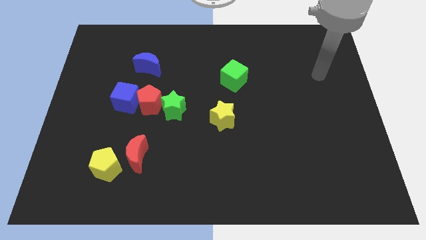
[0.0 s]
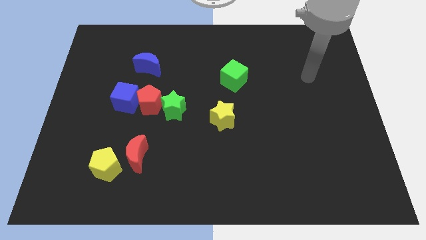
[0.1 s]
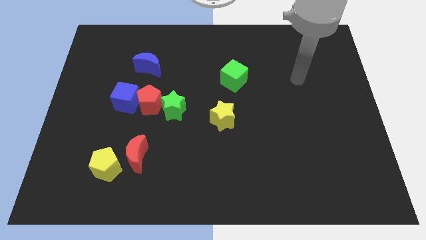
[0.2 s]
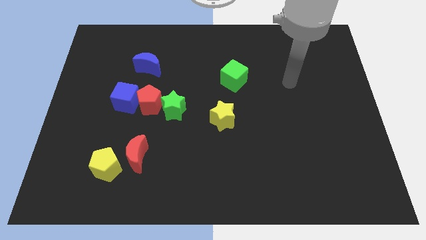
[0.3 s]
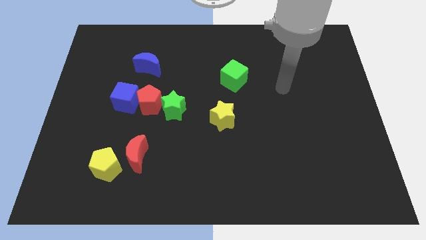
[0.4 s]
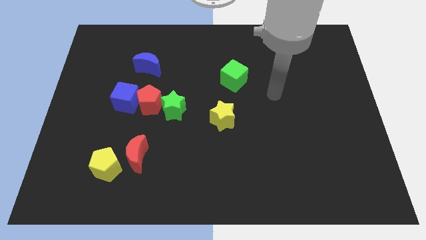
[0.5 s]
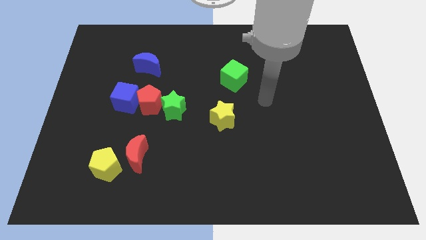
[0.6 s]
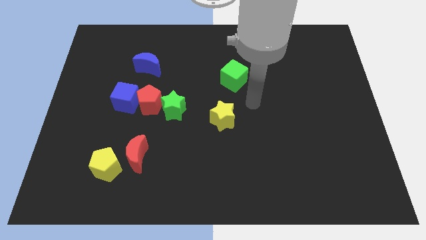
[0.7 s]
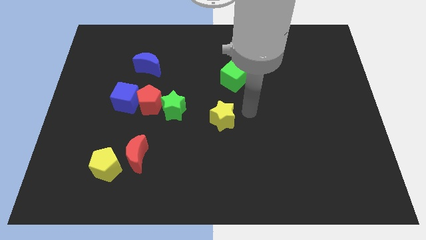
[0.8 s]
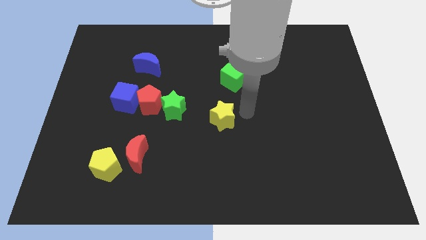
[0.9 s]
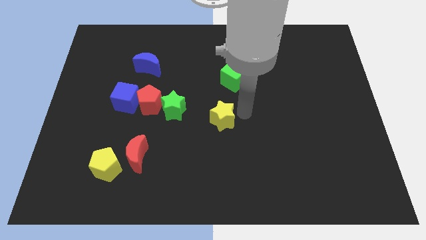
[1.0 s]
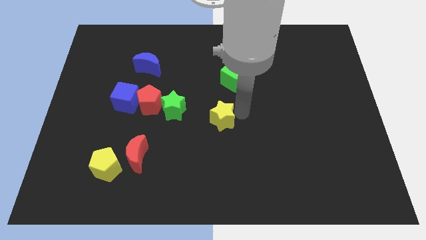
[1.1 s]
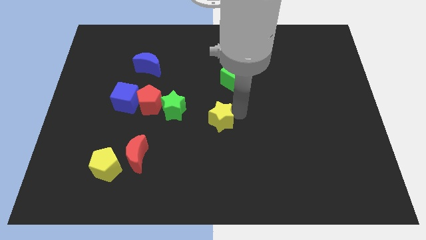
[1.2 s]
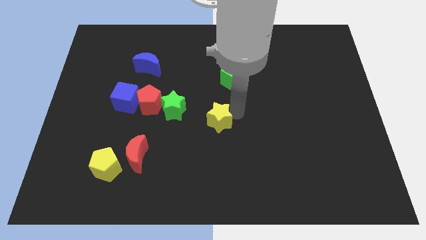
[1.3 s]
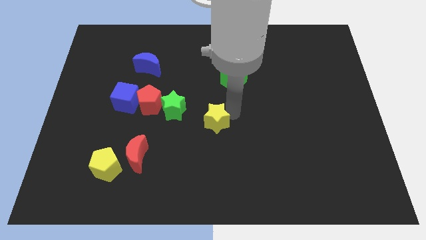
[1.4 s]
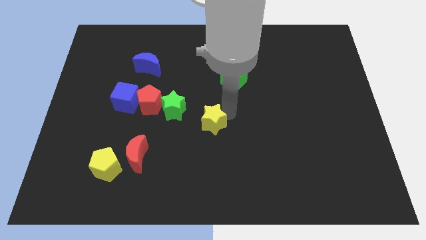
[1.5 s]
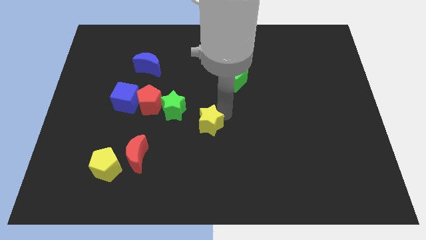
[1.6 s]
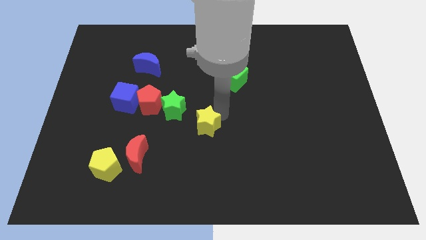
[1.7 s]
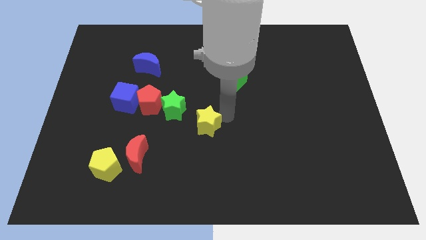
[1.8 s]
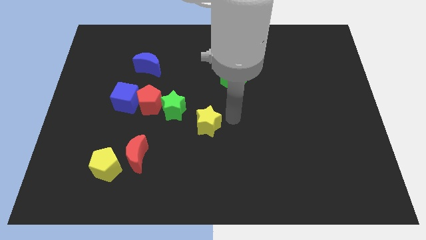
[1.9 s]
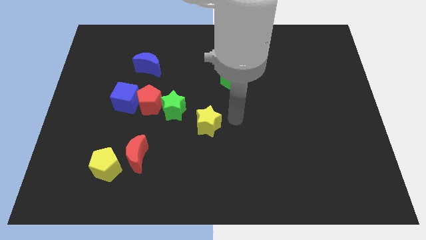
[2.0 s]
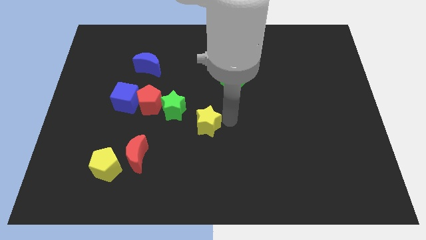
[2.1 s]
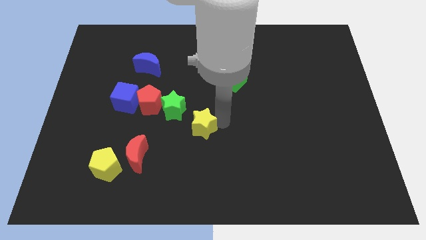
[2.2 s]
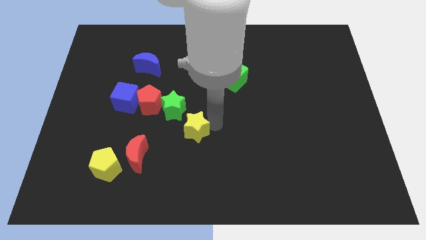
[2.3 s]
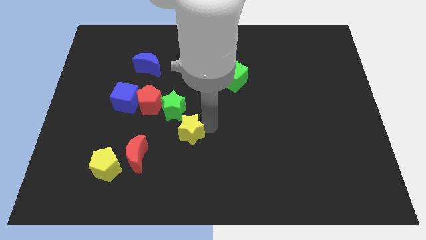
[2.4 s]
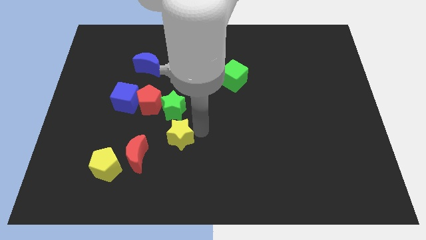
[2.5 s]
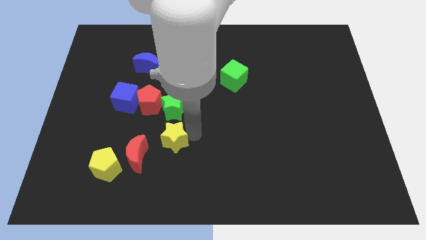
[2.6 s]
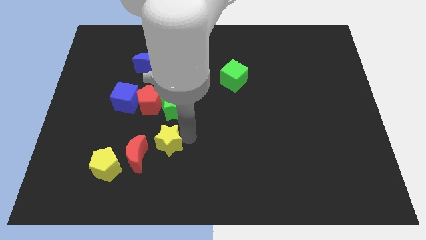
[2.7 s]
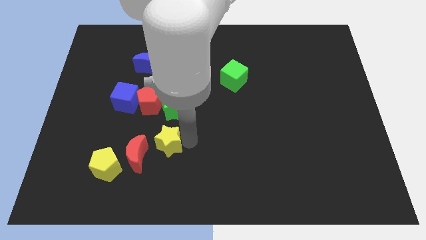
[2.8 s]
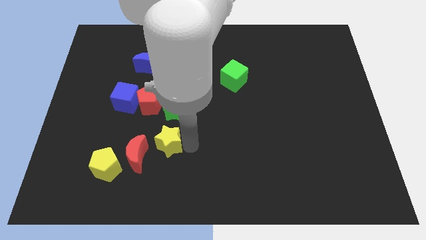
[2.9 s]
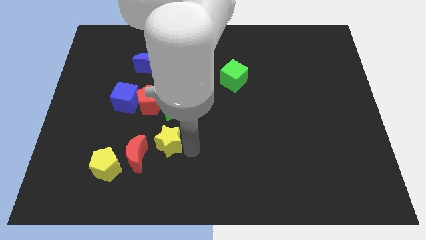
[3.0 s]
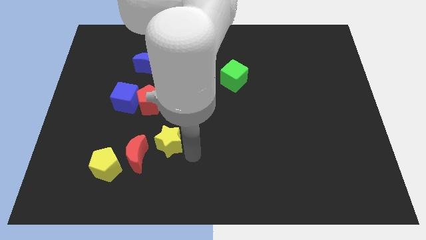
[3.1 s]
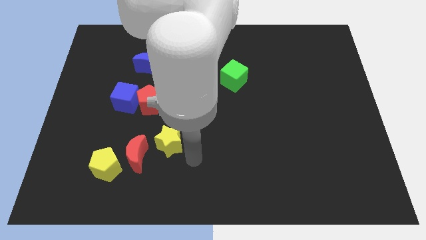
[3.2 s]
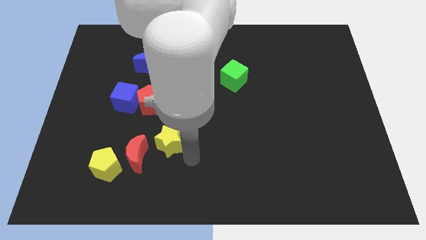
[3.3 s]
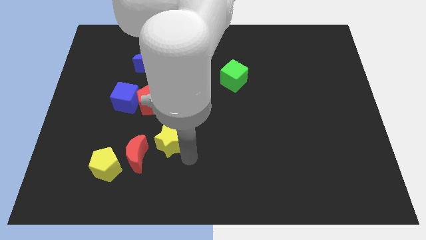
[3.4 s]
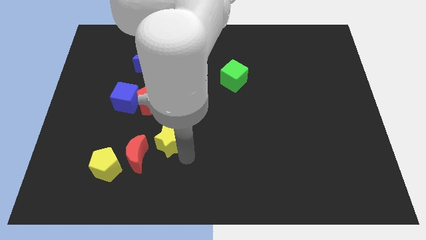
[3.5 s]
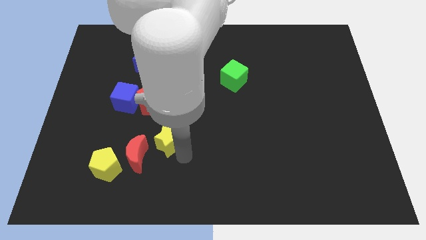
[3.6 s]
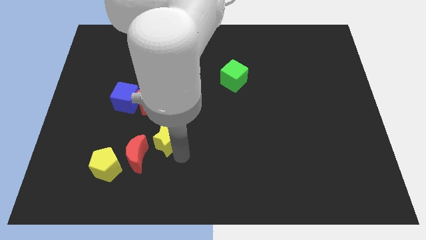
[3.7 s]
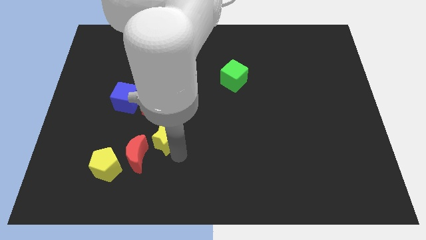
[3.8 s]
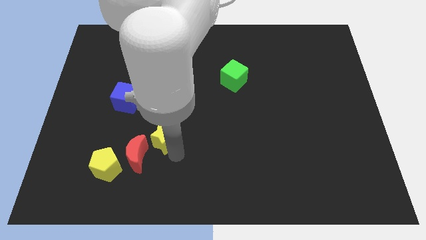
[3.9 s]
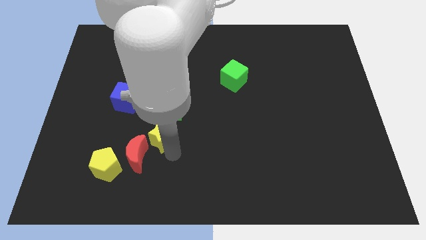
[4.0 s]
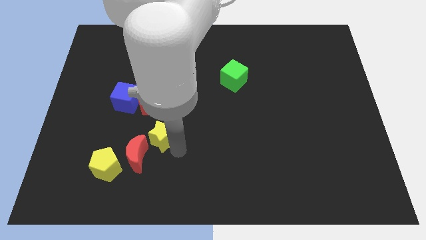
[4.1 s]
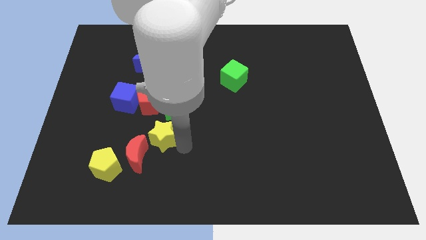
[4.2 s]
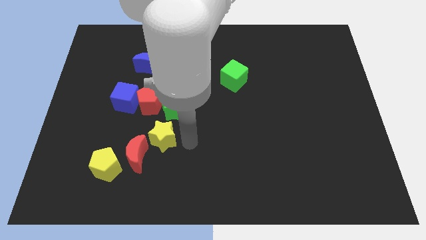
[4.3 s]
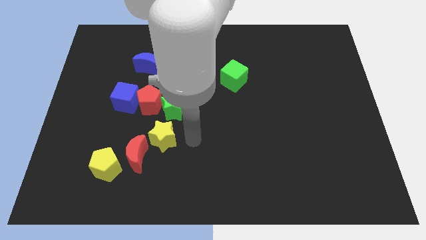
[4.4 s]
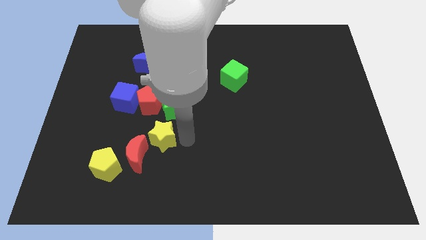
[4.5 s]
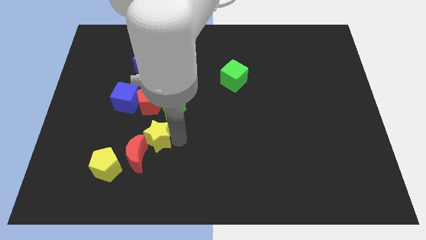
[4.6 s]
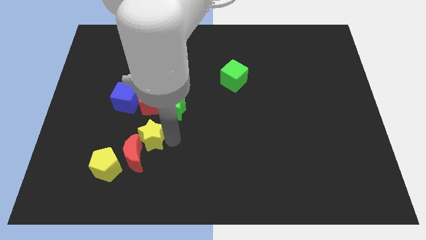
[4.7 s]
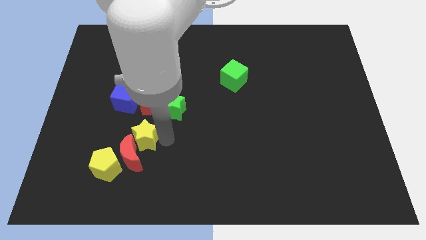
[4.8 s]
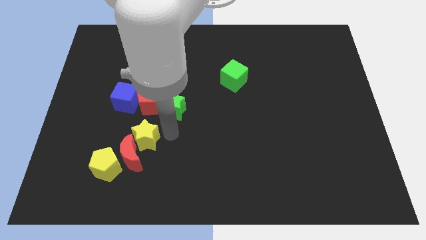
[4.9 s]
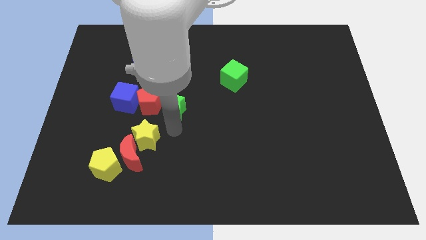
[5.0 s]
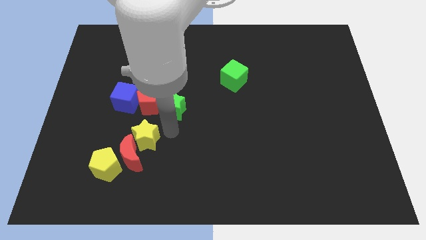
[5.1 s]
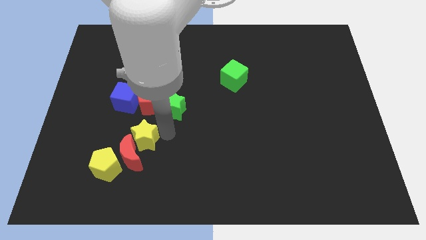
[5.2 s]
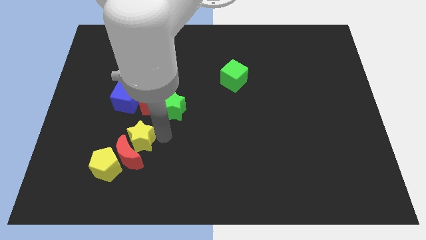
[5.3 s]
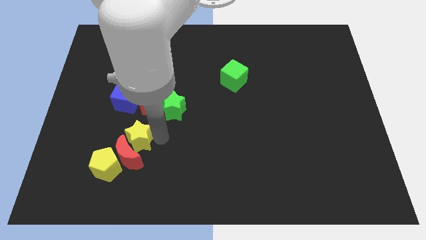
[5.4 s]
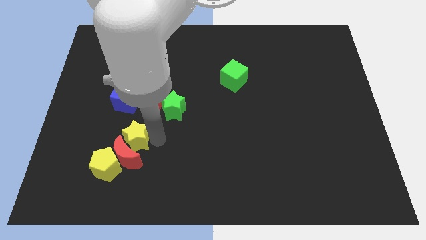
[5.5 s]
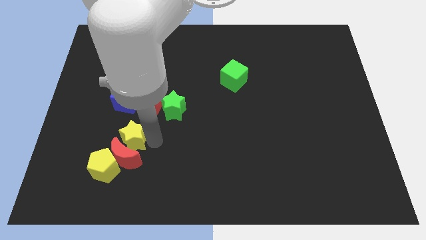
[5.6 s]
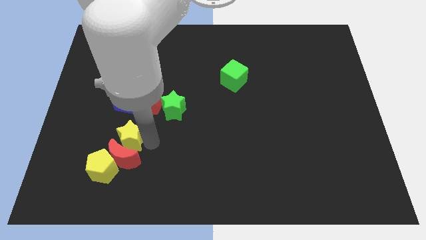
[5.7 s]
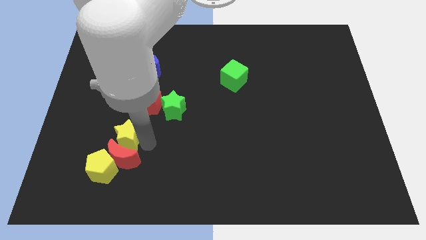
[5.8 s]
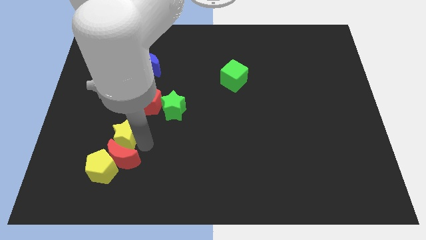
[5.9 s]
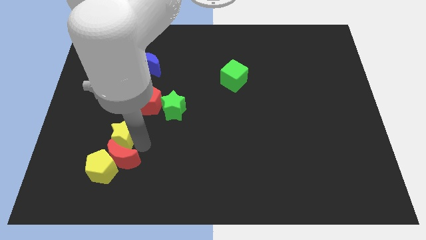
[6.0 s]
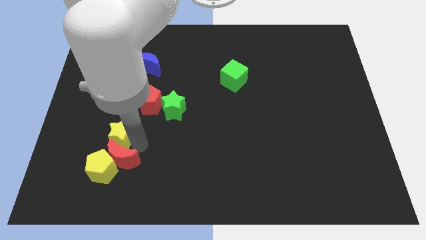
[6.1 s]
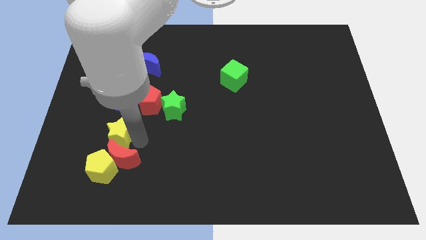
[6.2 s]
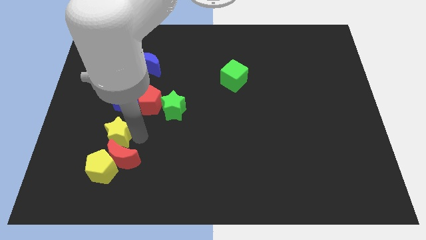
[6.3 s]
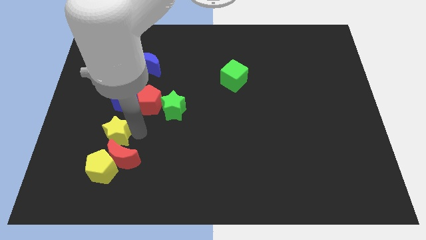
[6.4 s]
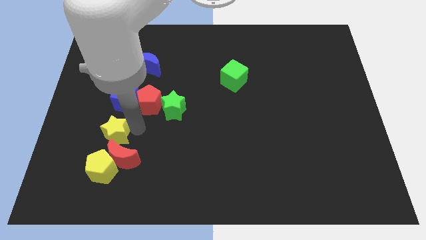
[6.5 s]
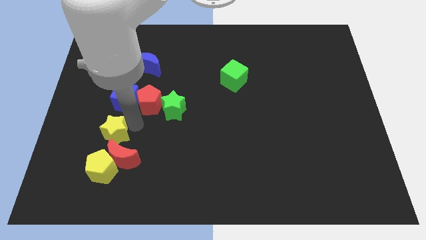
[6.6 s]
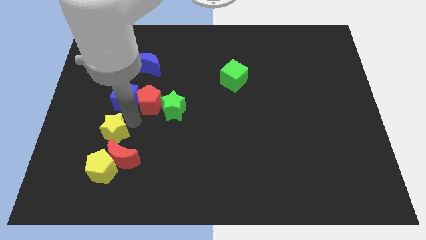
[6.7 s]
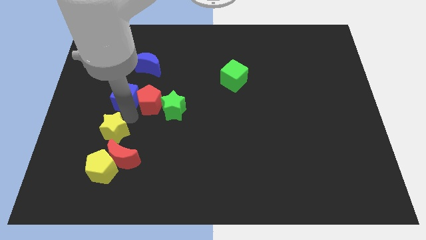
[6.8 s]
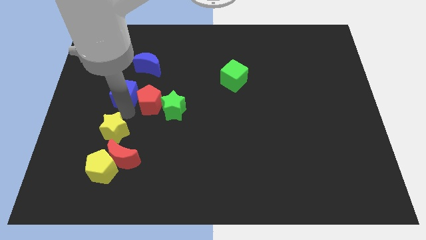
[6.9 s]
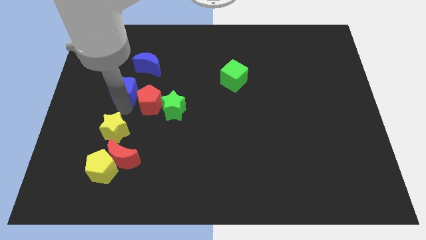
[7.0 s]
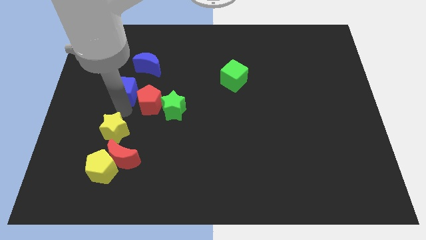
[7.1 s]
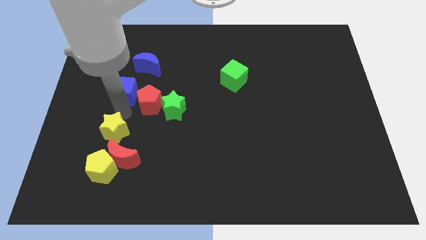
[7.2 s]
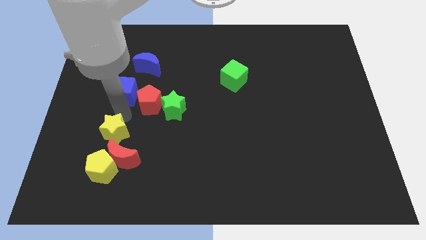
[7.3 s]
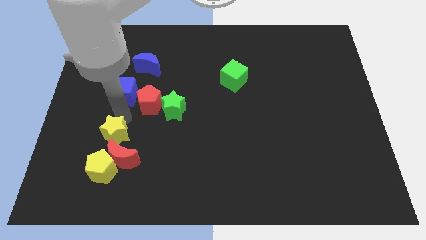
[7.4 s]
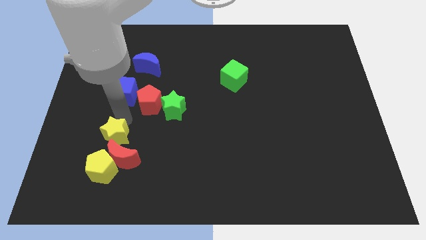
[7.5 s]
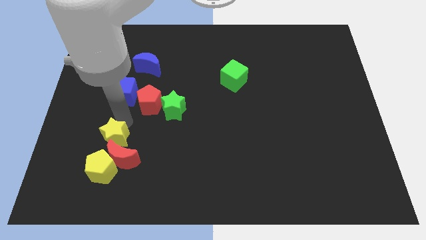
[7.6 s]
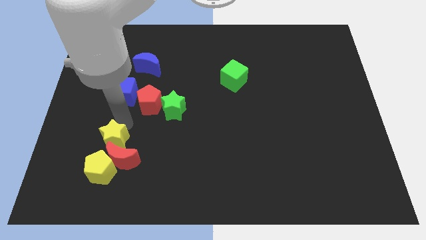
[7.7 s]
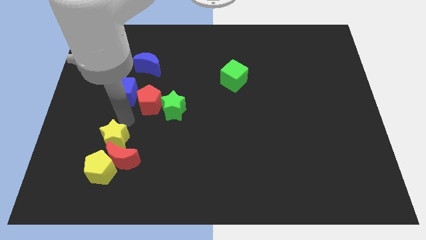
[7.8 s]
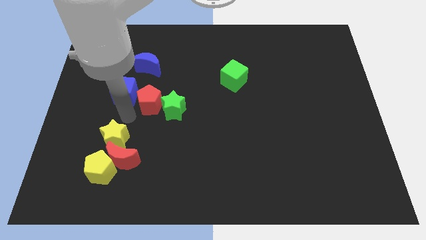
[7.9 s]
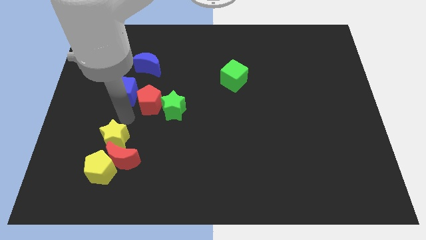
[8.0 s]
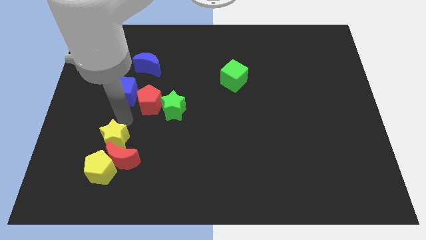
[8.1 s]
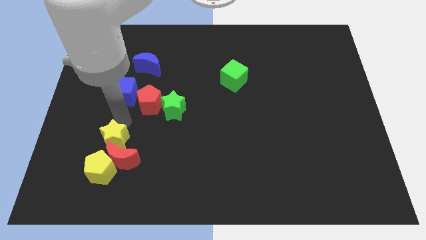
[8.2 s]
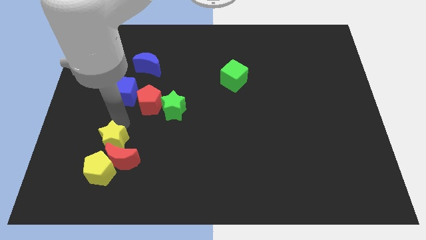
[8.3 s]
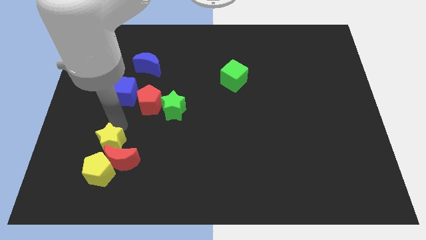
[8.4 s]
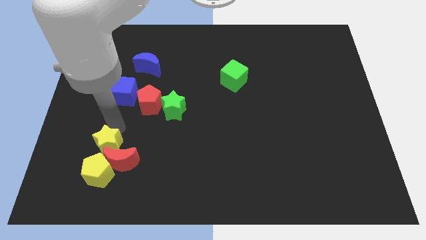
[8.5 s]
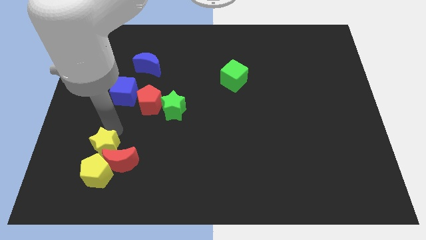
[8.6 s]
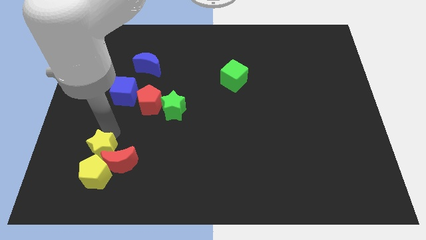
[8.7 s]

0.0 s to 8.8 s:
slide the yellow star close to the yellow pentagon
